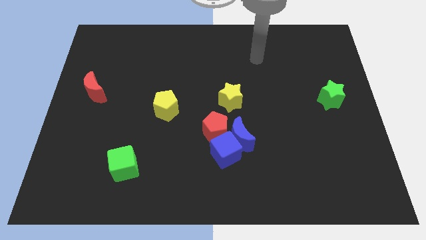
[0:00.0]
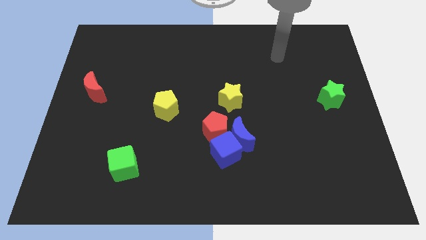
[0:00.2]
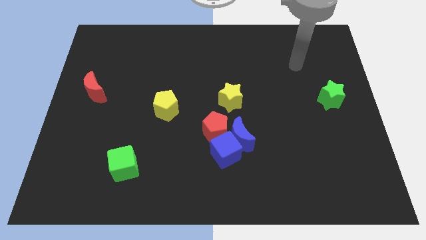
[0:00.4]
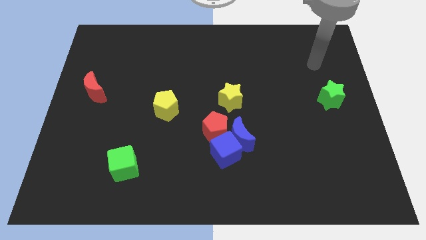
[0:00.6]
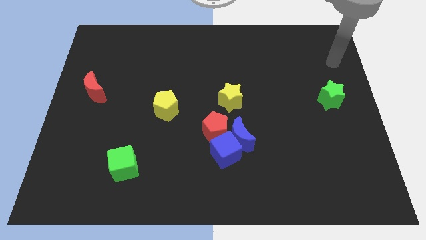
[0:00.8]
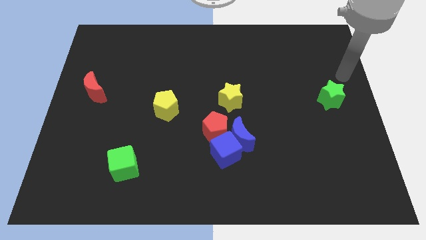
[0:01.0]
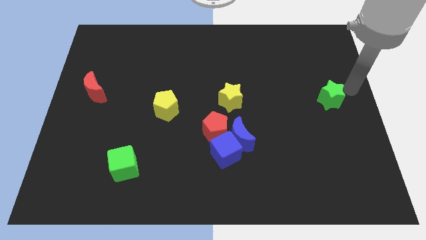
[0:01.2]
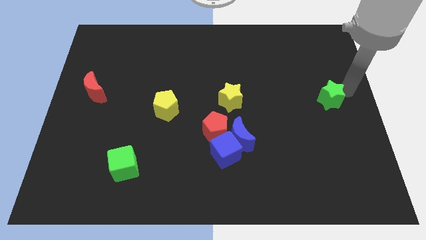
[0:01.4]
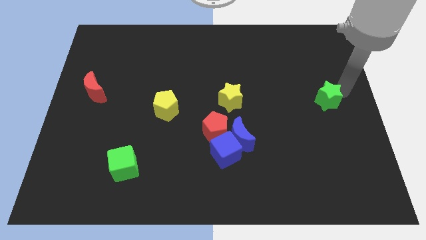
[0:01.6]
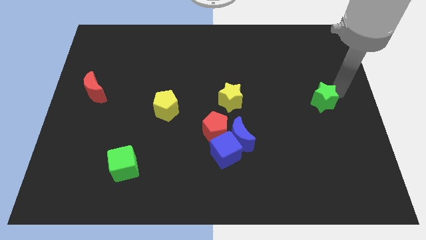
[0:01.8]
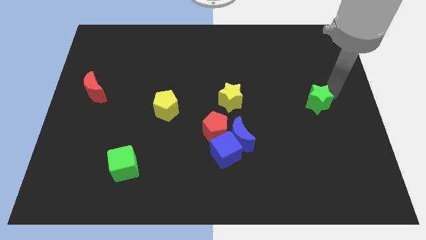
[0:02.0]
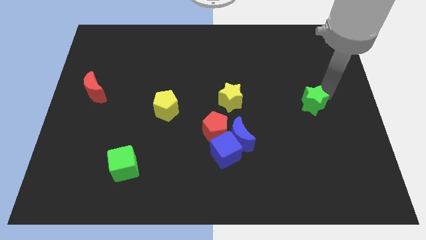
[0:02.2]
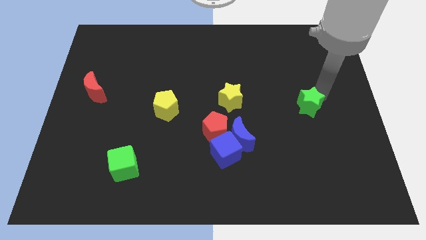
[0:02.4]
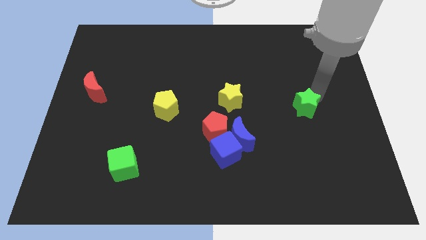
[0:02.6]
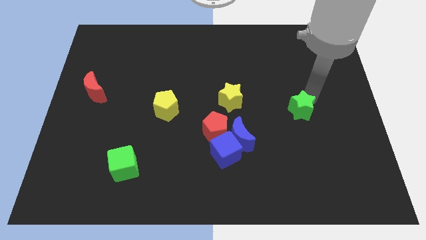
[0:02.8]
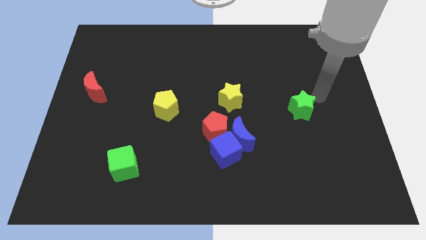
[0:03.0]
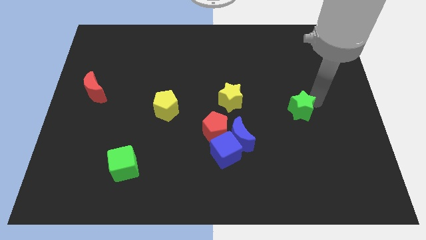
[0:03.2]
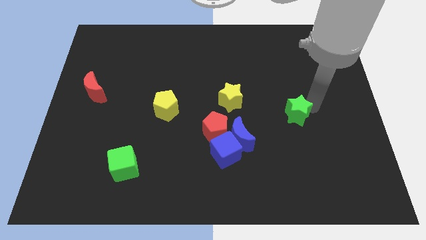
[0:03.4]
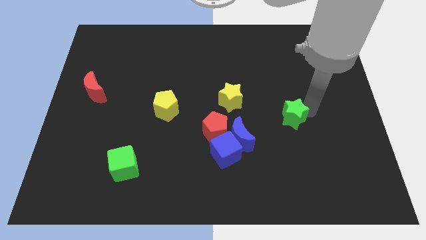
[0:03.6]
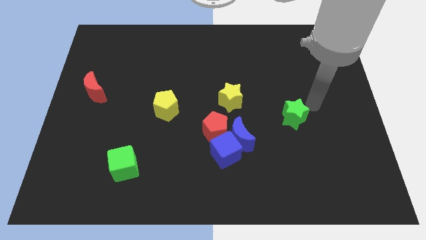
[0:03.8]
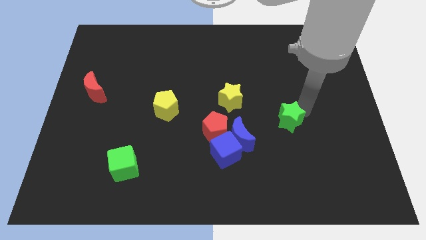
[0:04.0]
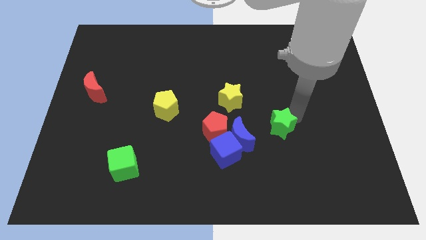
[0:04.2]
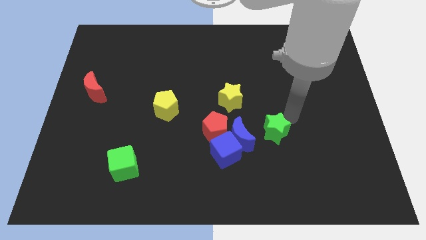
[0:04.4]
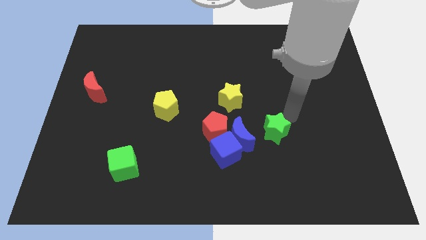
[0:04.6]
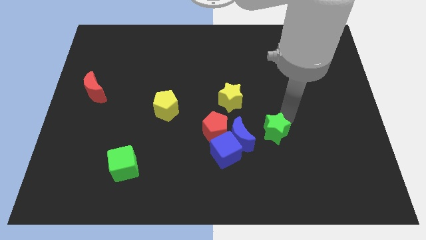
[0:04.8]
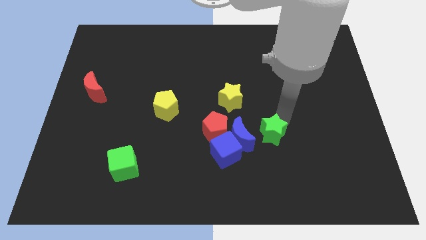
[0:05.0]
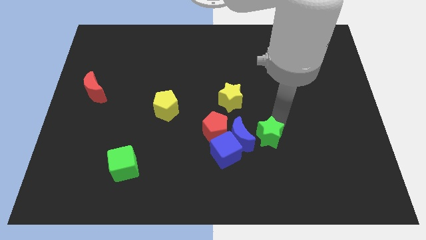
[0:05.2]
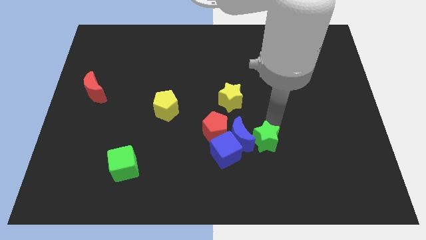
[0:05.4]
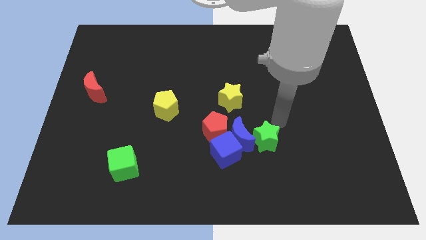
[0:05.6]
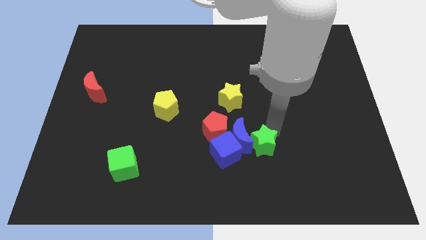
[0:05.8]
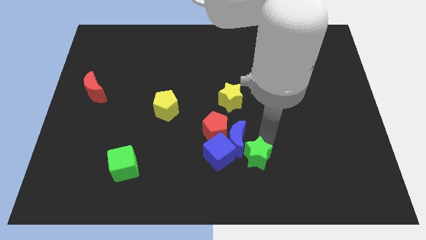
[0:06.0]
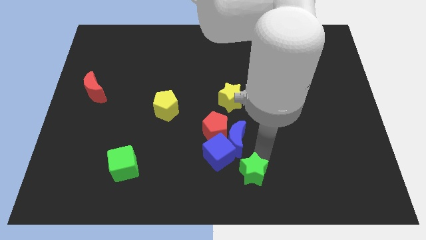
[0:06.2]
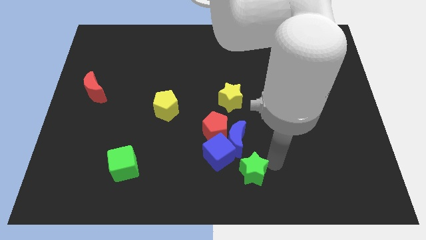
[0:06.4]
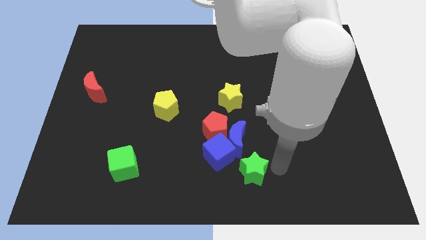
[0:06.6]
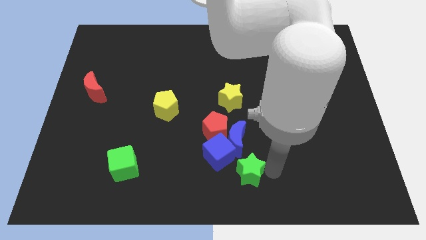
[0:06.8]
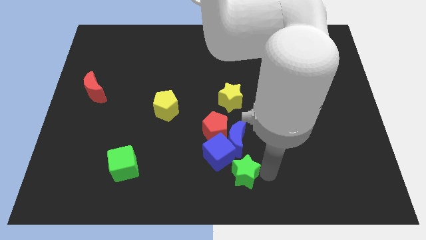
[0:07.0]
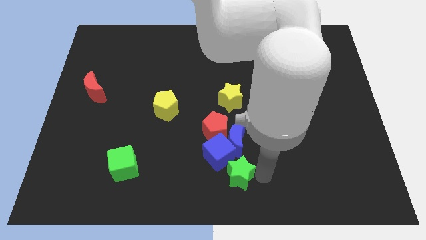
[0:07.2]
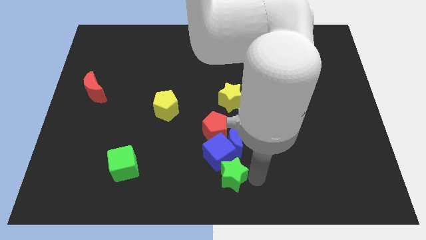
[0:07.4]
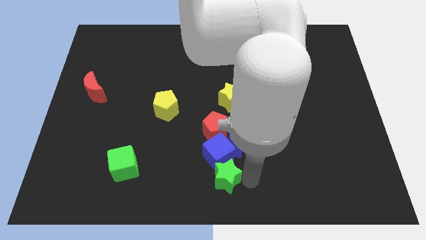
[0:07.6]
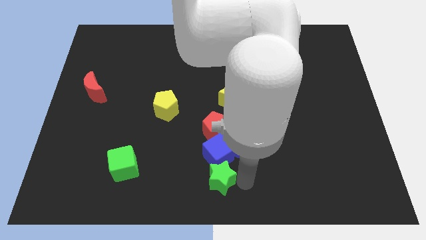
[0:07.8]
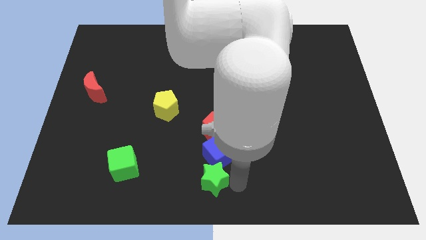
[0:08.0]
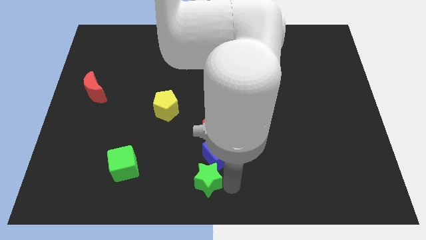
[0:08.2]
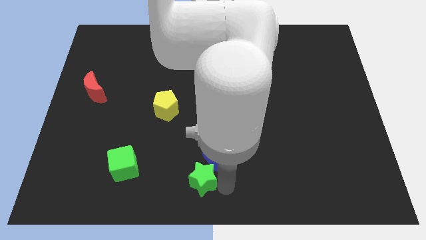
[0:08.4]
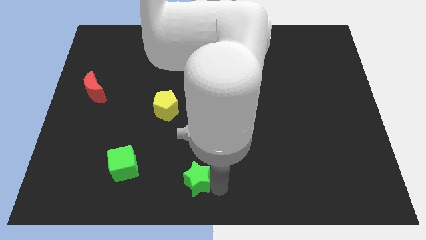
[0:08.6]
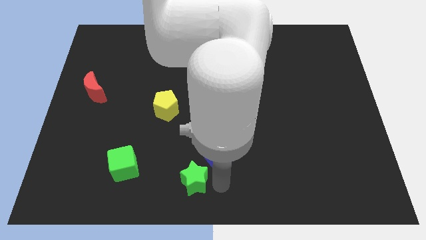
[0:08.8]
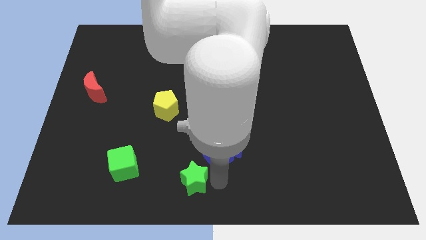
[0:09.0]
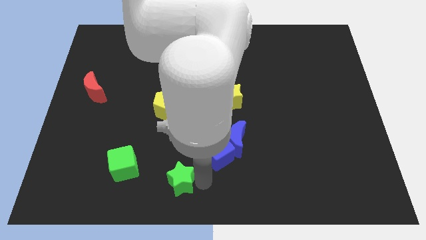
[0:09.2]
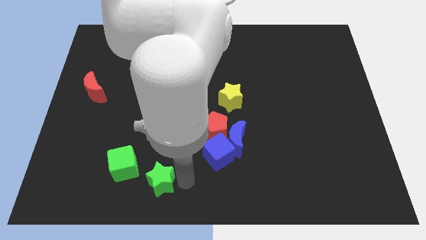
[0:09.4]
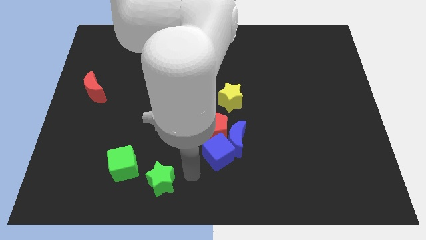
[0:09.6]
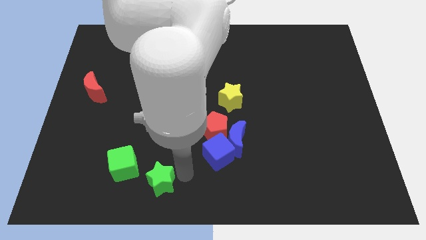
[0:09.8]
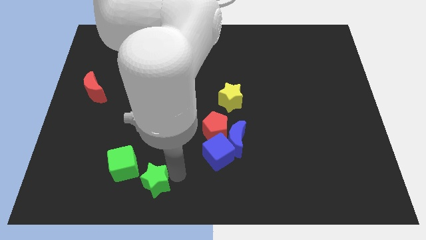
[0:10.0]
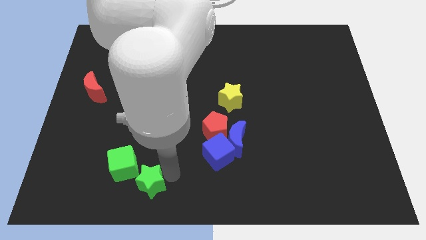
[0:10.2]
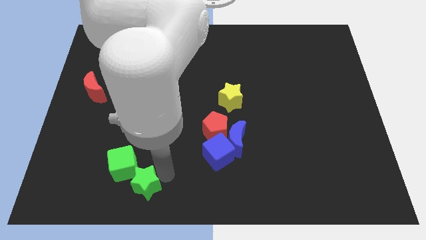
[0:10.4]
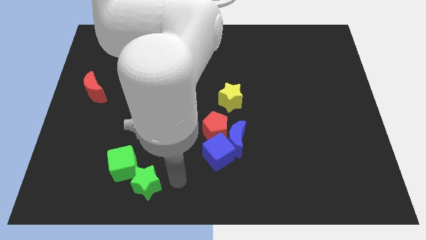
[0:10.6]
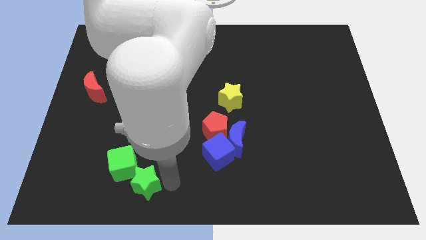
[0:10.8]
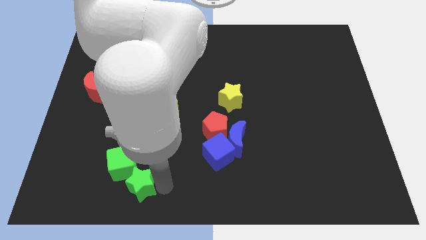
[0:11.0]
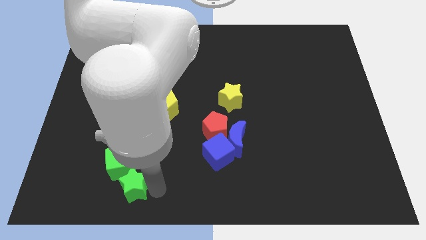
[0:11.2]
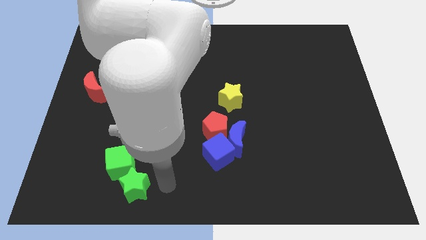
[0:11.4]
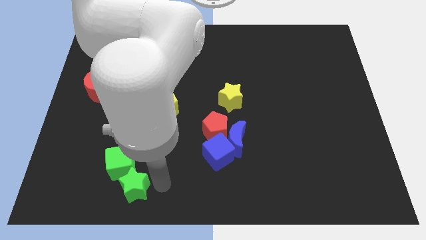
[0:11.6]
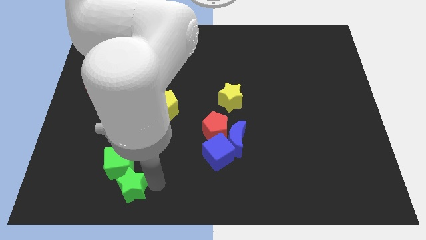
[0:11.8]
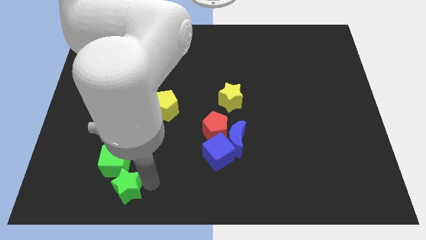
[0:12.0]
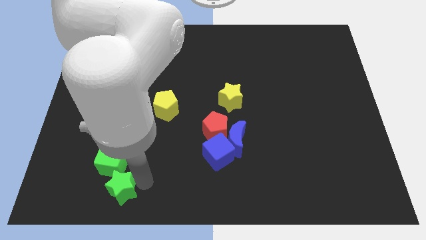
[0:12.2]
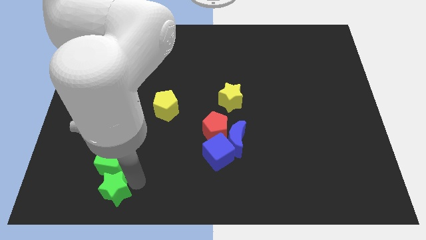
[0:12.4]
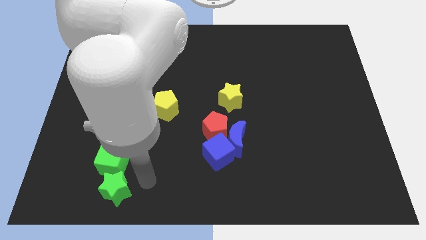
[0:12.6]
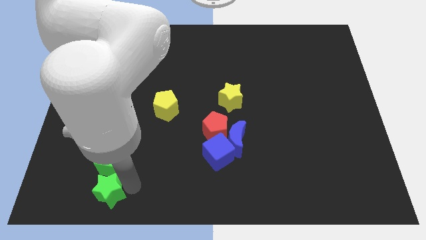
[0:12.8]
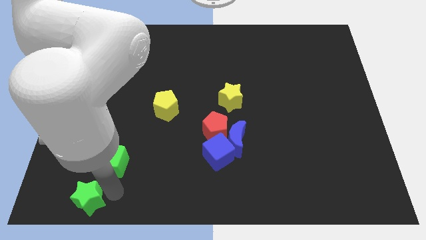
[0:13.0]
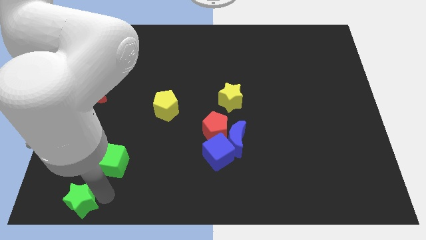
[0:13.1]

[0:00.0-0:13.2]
put the green star to the bottom left of the board
